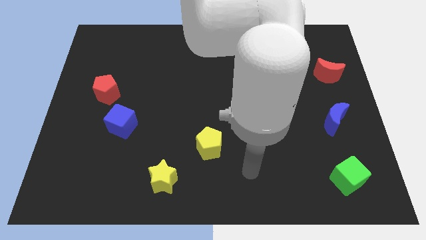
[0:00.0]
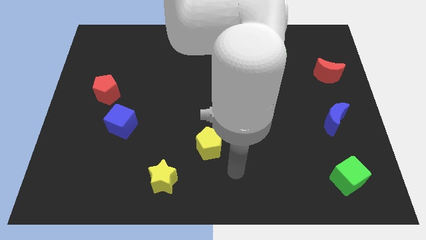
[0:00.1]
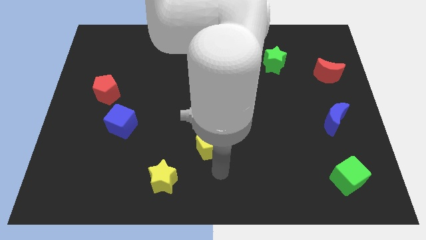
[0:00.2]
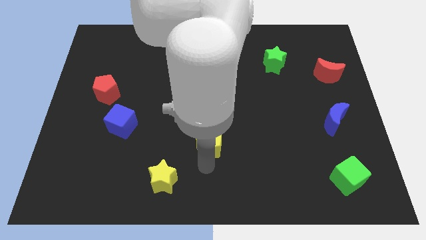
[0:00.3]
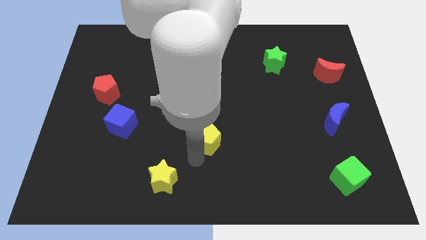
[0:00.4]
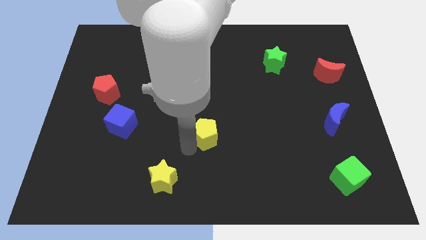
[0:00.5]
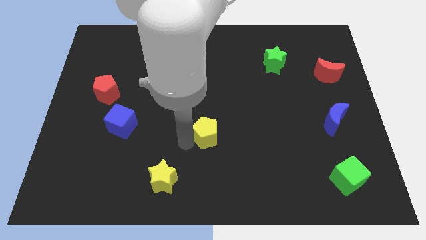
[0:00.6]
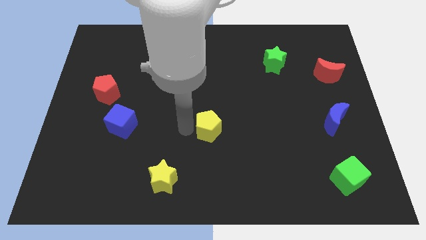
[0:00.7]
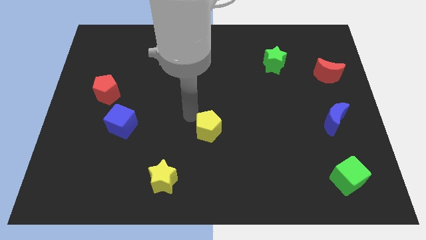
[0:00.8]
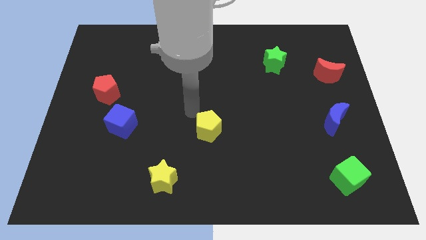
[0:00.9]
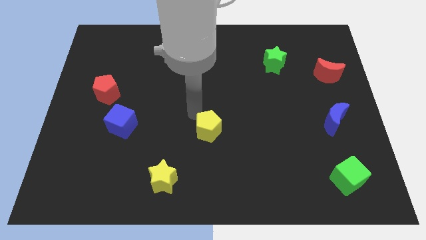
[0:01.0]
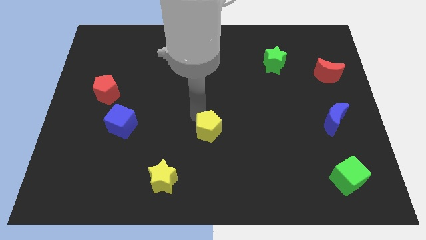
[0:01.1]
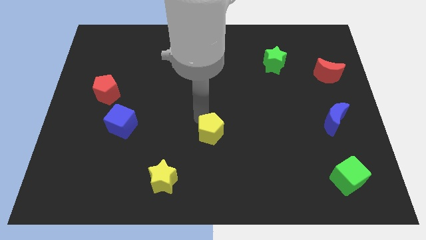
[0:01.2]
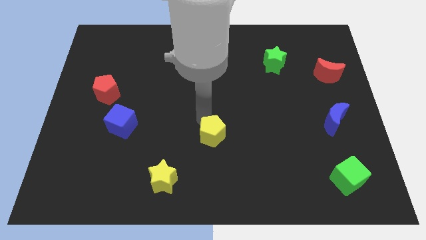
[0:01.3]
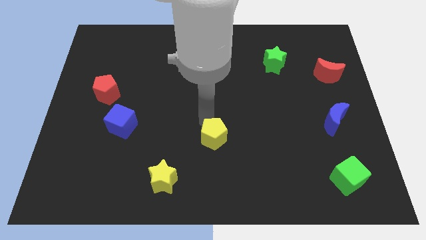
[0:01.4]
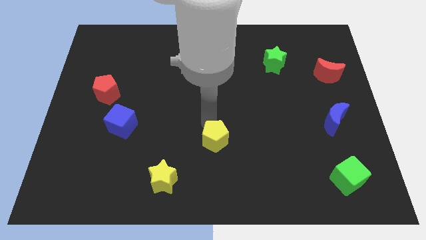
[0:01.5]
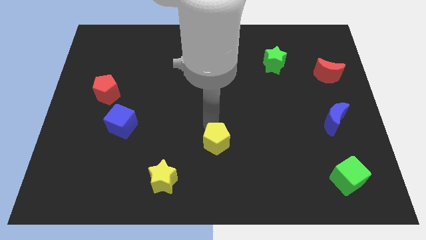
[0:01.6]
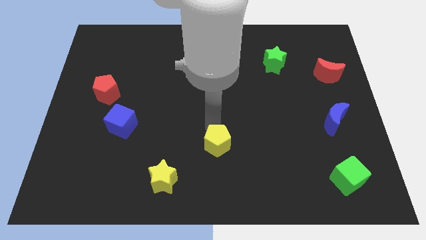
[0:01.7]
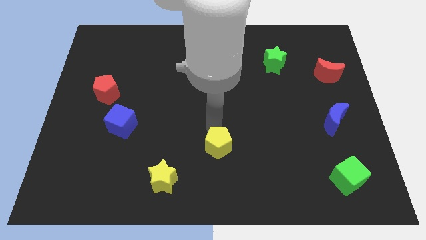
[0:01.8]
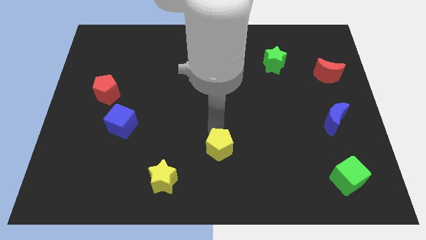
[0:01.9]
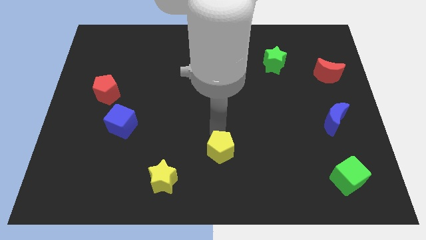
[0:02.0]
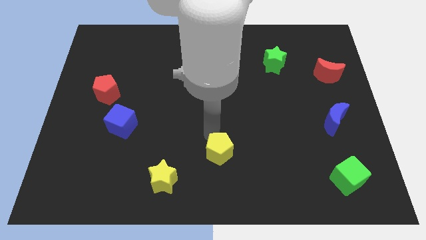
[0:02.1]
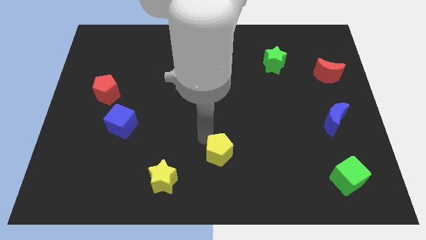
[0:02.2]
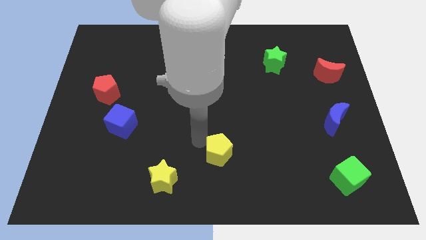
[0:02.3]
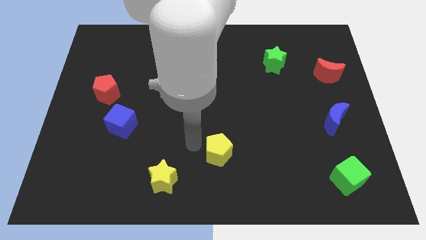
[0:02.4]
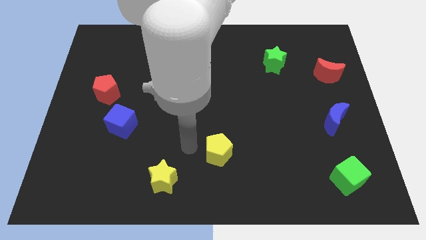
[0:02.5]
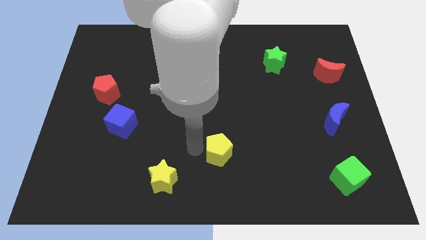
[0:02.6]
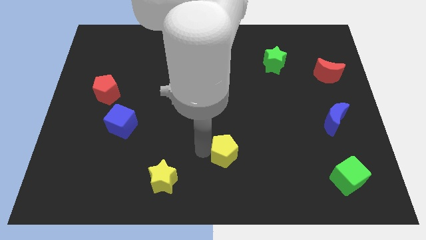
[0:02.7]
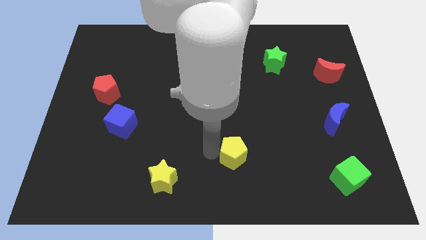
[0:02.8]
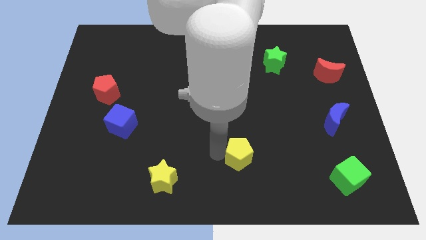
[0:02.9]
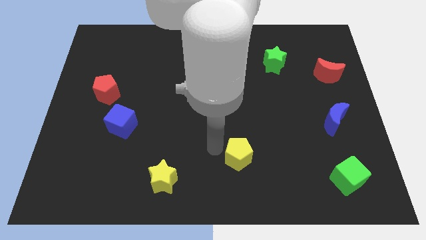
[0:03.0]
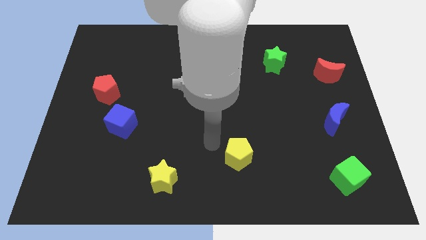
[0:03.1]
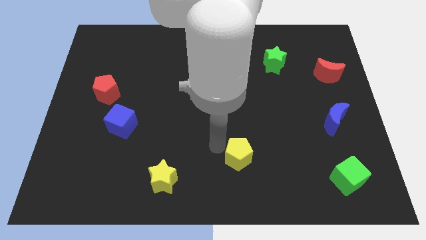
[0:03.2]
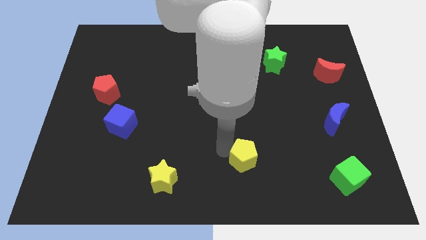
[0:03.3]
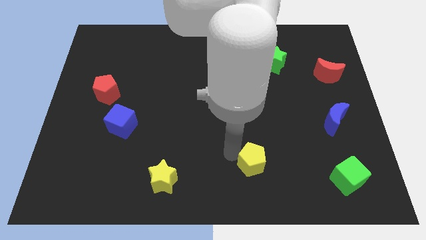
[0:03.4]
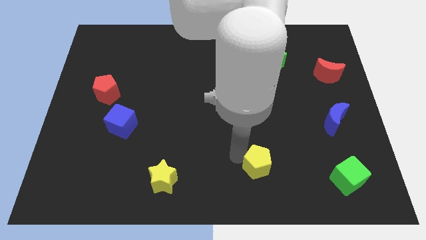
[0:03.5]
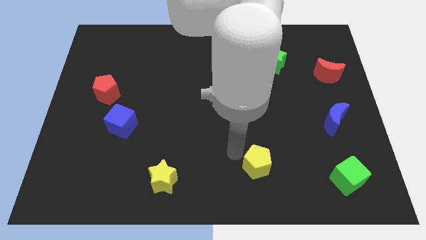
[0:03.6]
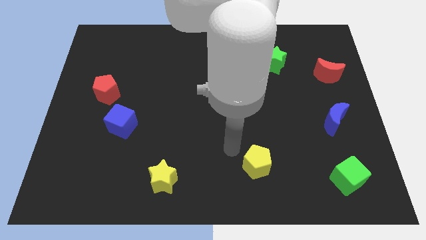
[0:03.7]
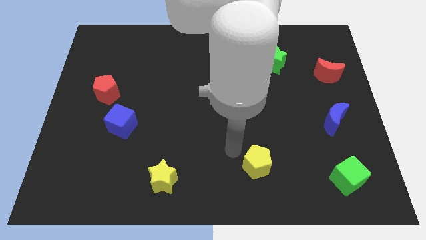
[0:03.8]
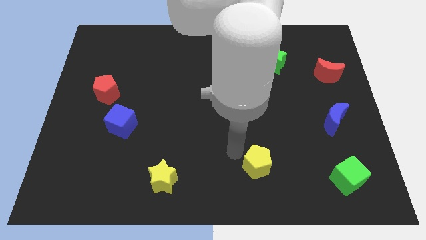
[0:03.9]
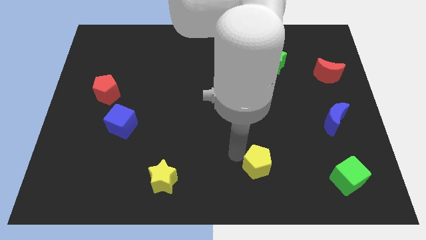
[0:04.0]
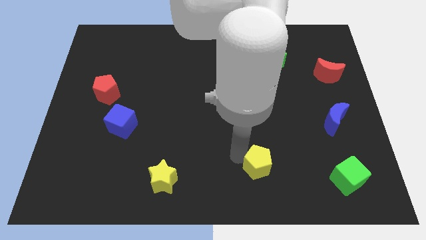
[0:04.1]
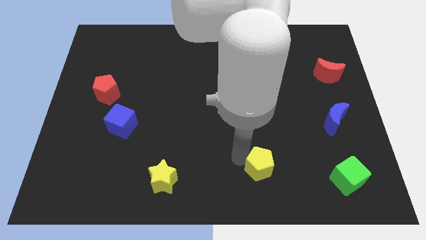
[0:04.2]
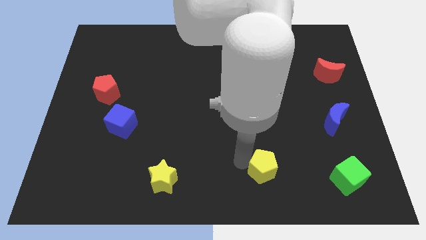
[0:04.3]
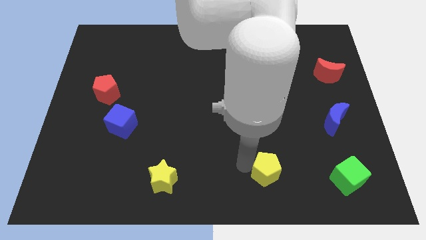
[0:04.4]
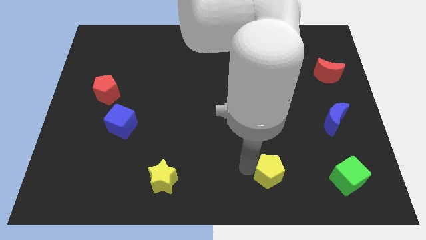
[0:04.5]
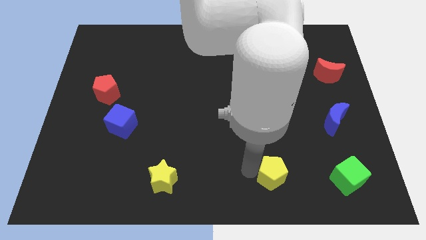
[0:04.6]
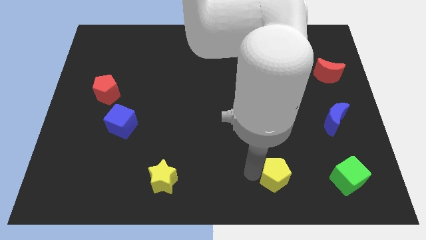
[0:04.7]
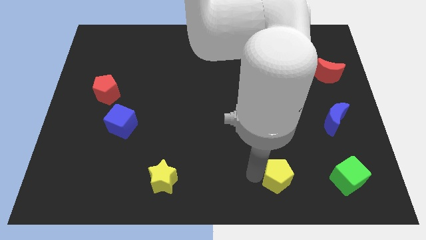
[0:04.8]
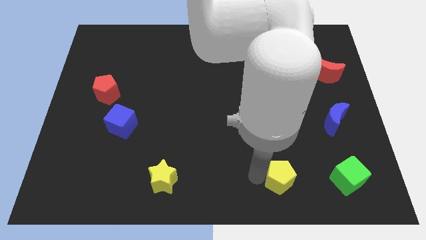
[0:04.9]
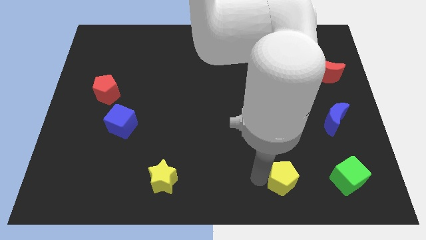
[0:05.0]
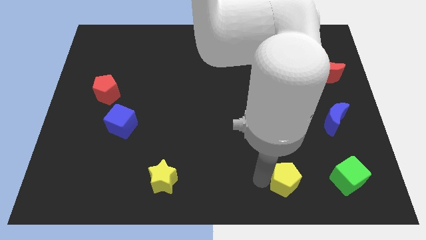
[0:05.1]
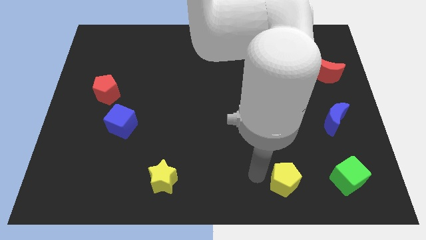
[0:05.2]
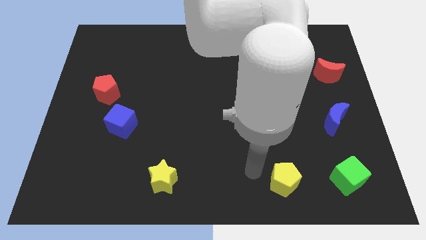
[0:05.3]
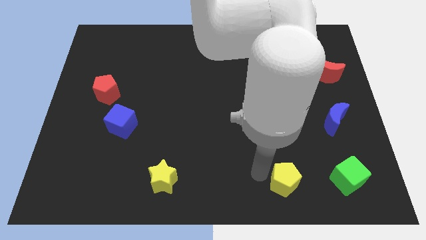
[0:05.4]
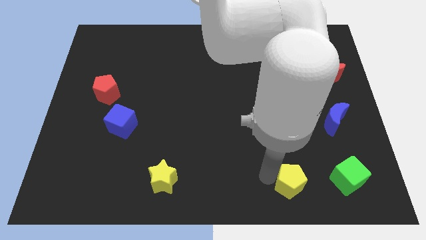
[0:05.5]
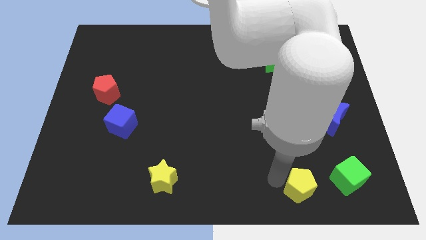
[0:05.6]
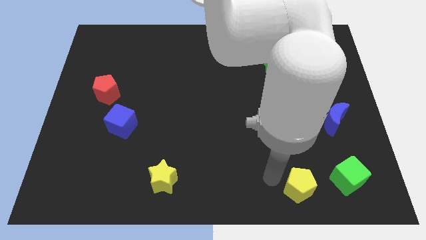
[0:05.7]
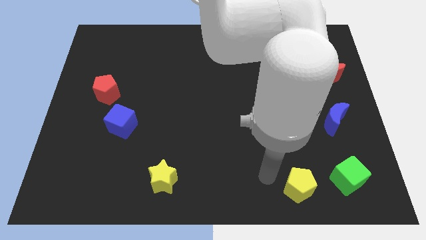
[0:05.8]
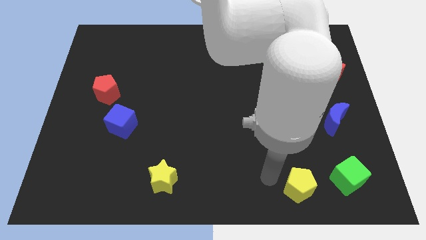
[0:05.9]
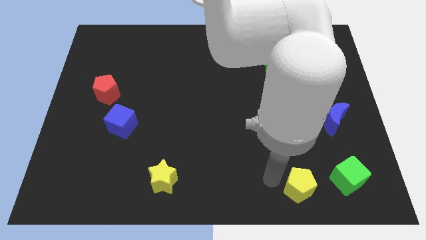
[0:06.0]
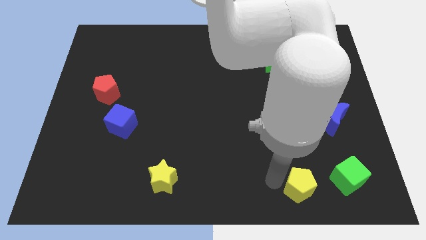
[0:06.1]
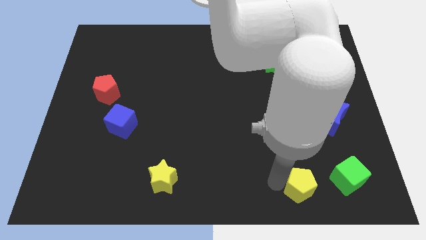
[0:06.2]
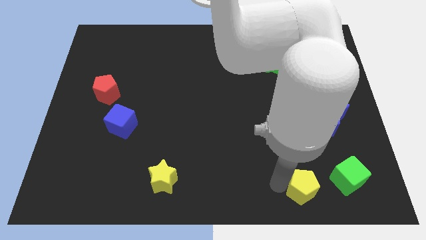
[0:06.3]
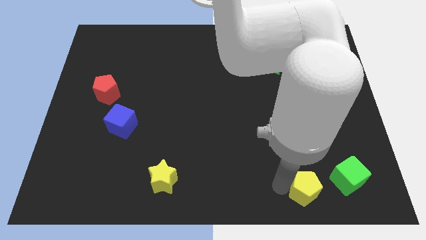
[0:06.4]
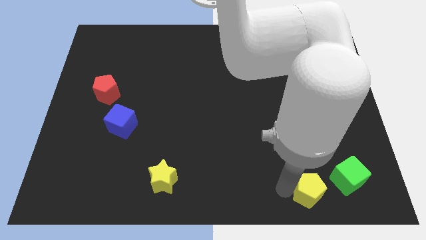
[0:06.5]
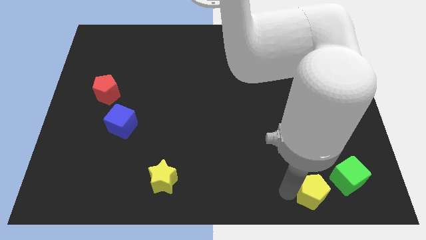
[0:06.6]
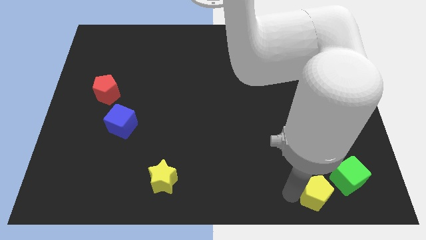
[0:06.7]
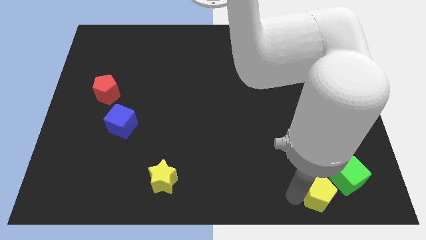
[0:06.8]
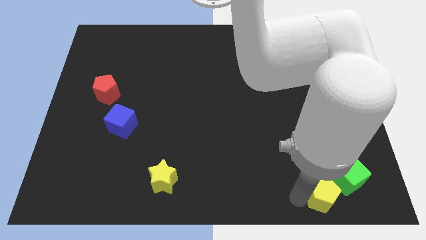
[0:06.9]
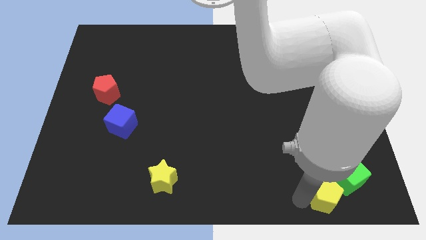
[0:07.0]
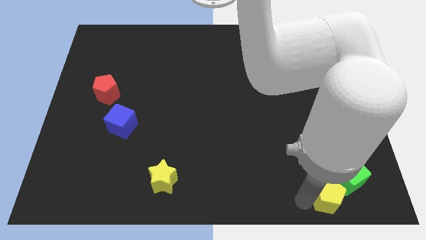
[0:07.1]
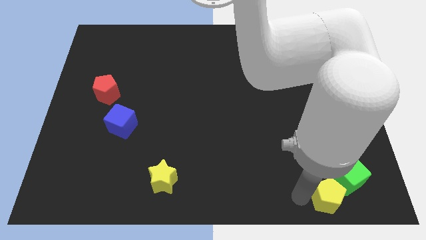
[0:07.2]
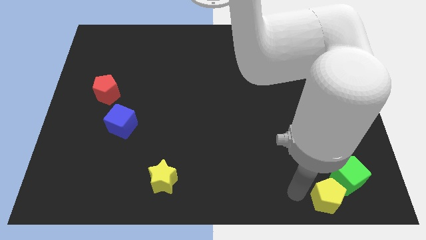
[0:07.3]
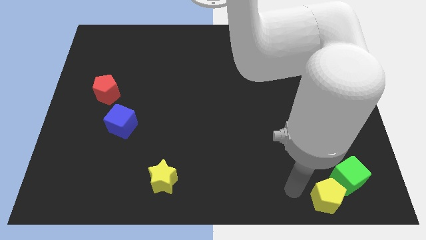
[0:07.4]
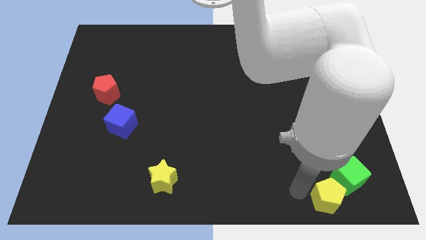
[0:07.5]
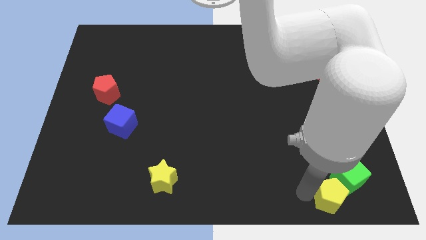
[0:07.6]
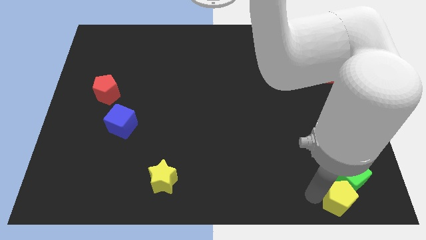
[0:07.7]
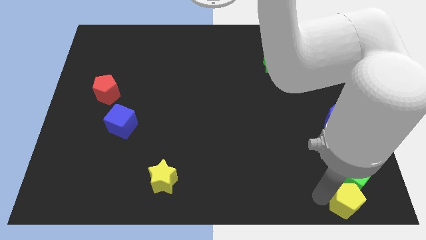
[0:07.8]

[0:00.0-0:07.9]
move the yellow pentagon to the lower right corner
